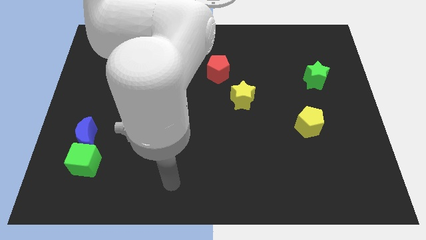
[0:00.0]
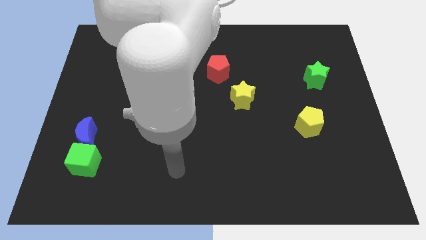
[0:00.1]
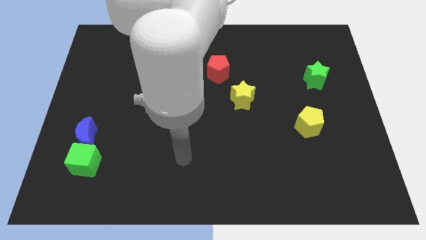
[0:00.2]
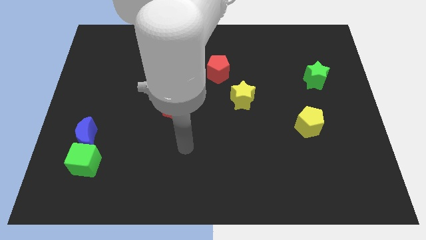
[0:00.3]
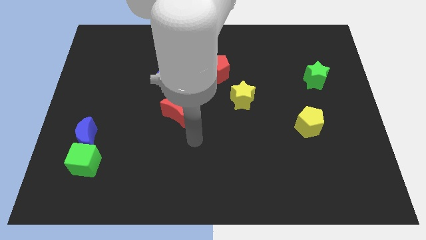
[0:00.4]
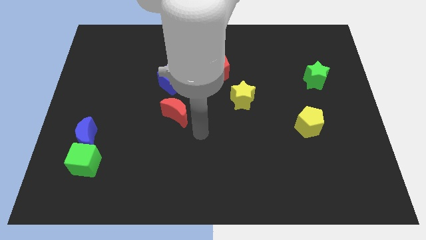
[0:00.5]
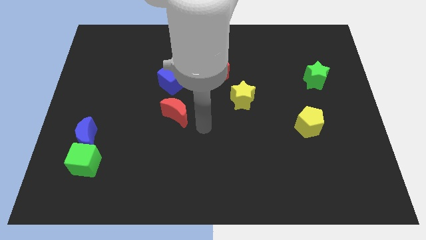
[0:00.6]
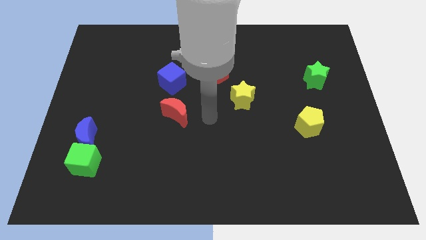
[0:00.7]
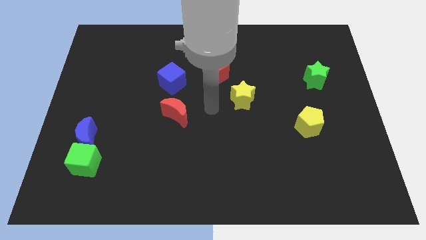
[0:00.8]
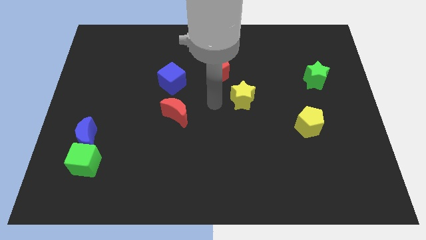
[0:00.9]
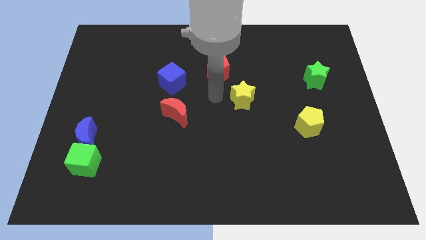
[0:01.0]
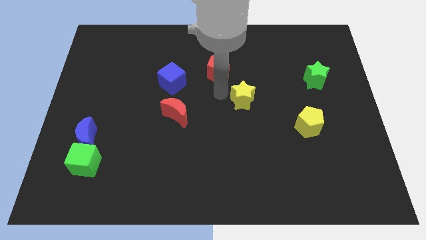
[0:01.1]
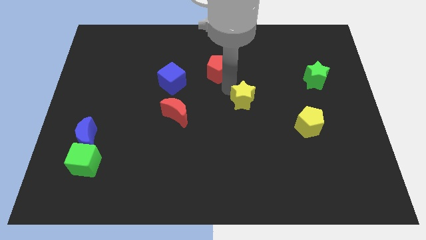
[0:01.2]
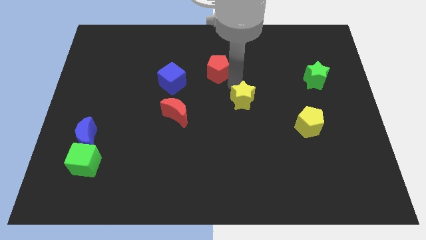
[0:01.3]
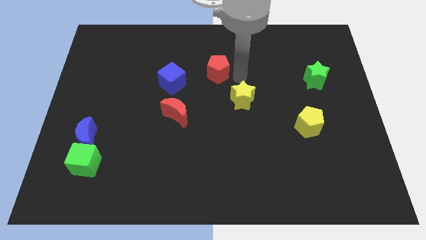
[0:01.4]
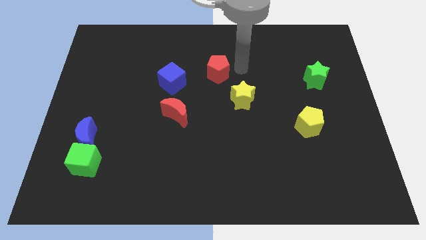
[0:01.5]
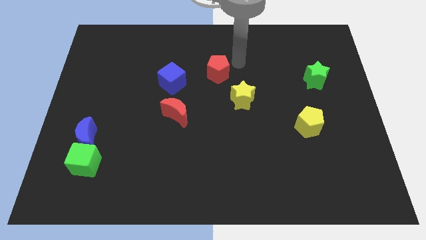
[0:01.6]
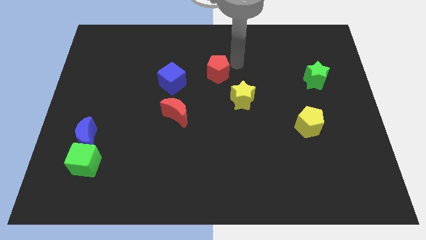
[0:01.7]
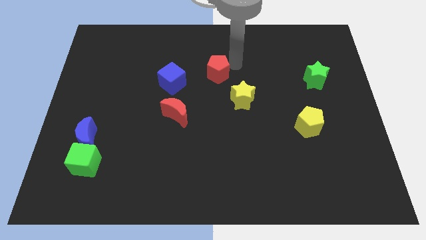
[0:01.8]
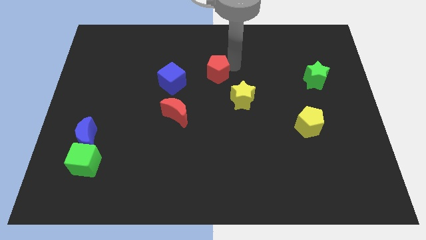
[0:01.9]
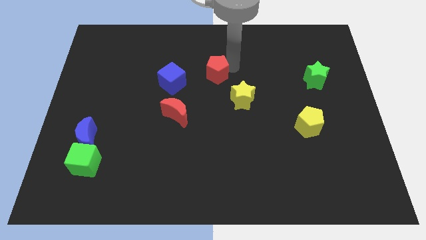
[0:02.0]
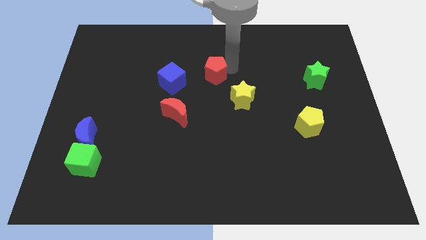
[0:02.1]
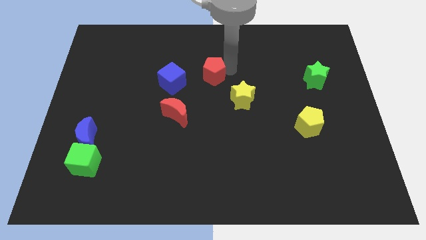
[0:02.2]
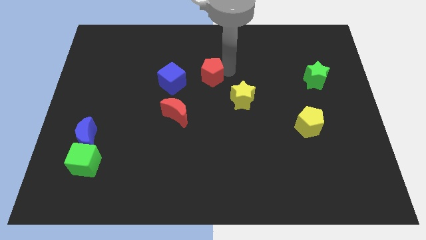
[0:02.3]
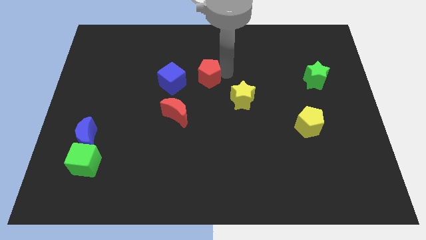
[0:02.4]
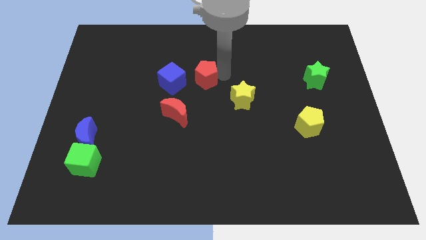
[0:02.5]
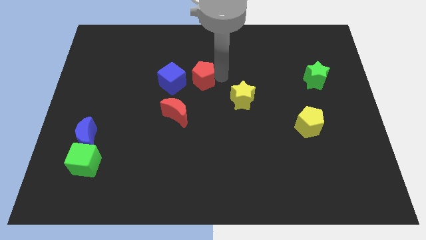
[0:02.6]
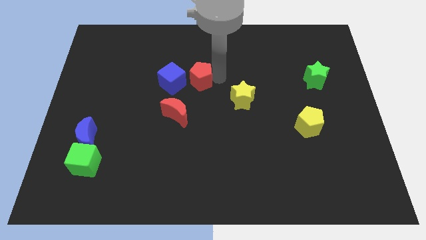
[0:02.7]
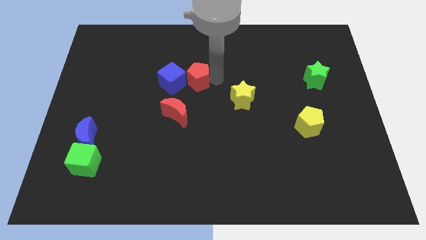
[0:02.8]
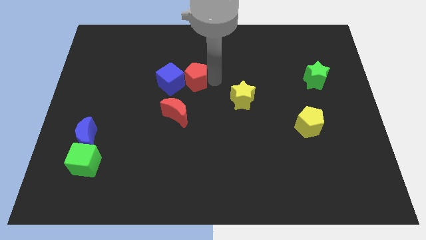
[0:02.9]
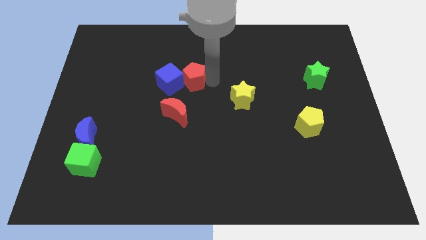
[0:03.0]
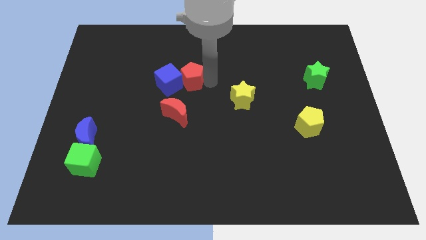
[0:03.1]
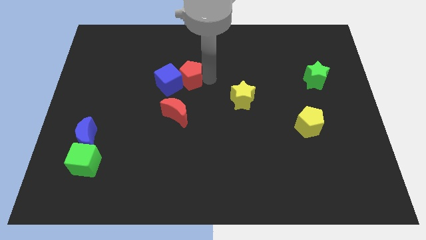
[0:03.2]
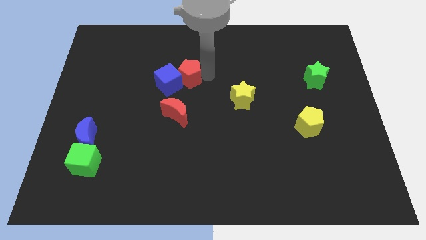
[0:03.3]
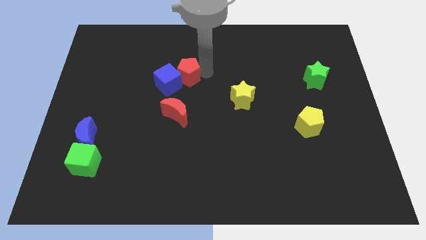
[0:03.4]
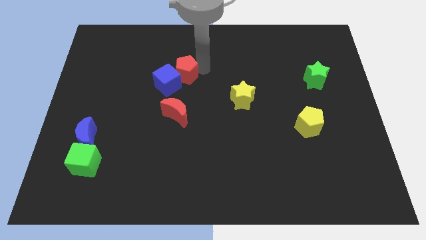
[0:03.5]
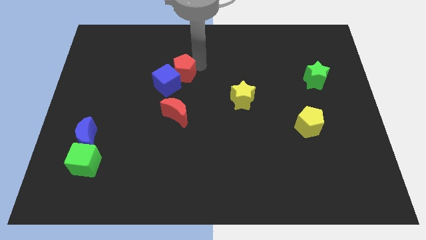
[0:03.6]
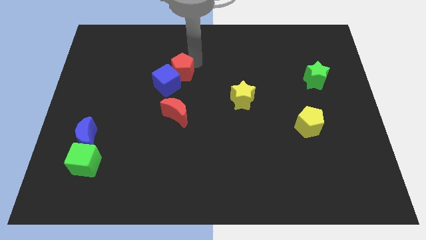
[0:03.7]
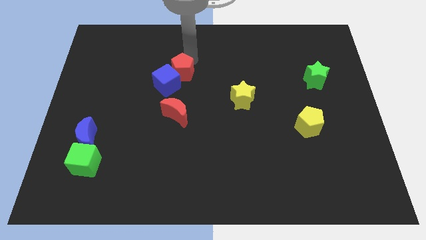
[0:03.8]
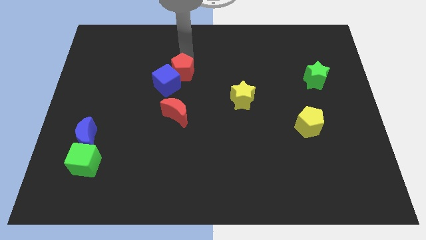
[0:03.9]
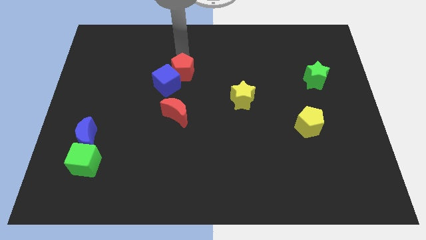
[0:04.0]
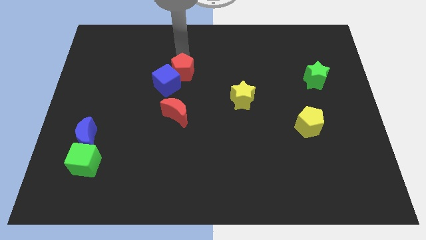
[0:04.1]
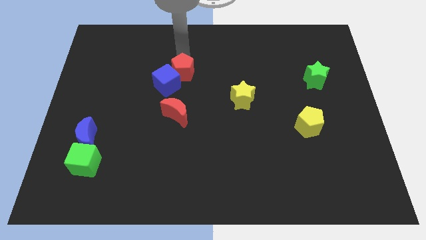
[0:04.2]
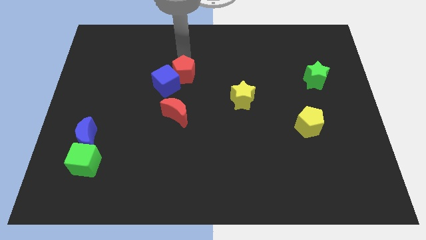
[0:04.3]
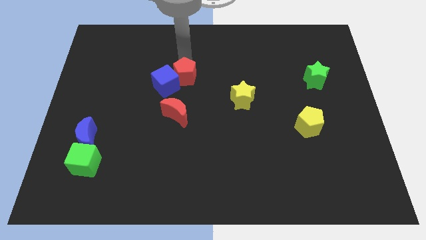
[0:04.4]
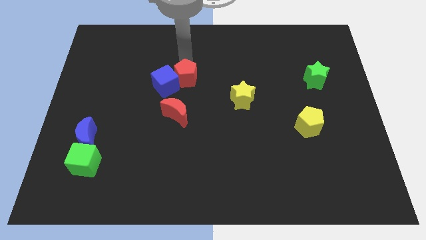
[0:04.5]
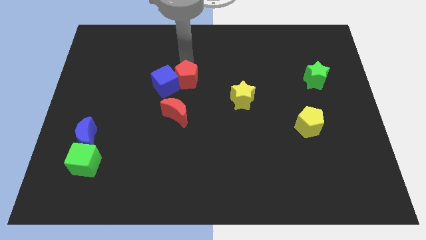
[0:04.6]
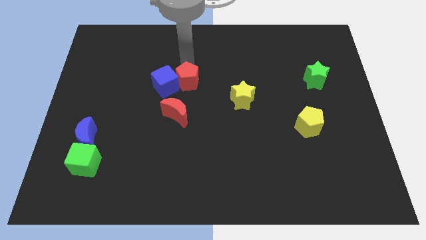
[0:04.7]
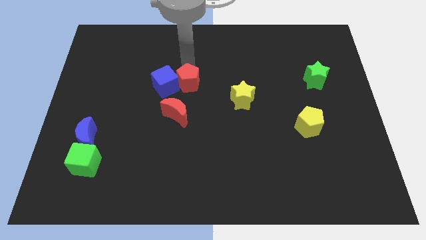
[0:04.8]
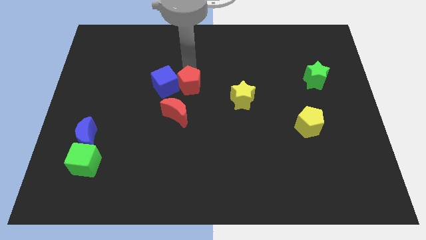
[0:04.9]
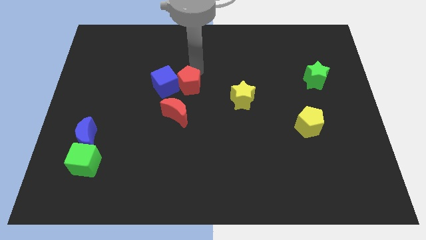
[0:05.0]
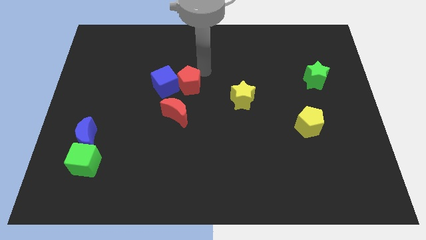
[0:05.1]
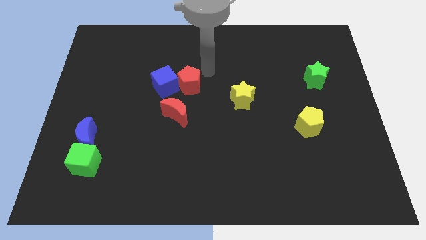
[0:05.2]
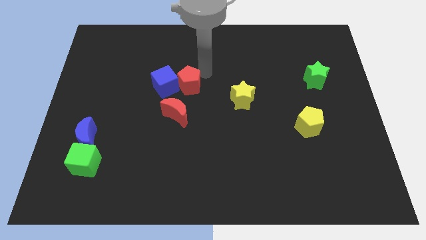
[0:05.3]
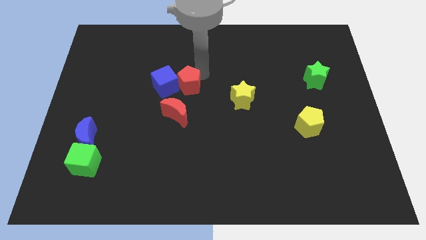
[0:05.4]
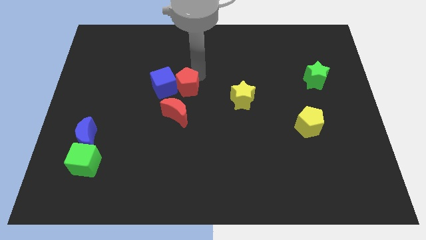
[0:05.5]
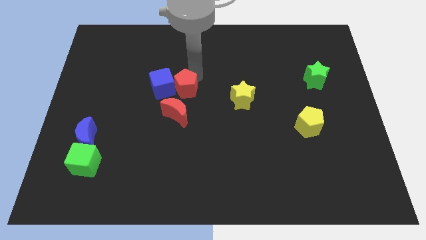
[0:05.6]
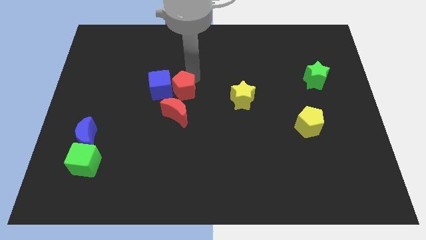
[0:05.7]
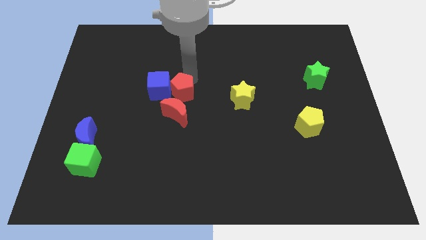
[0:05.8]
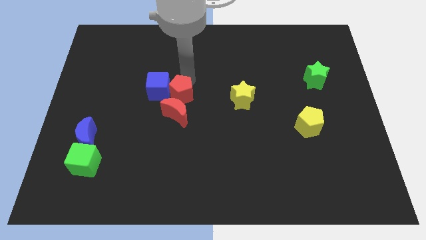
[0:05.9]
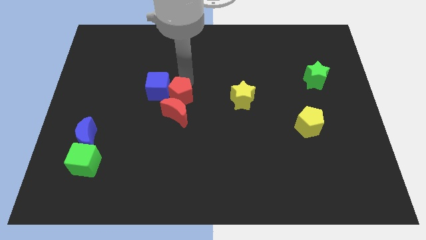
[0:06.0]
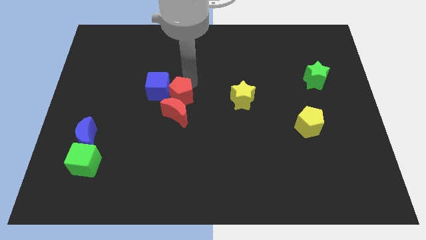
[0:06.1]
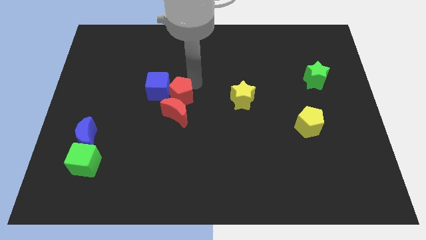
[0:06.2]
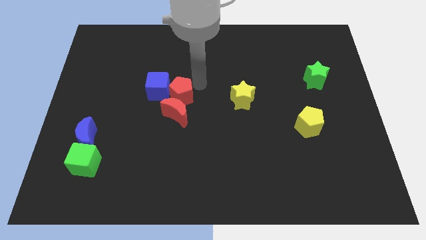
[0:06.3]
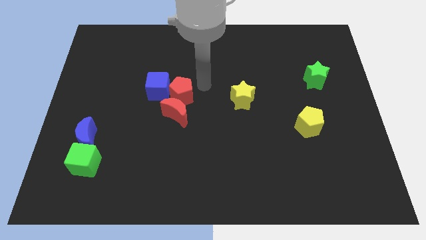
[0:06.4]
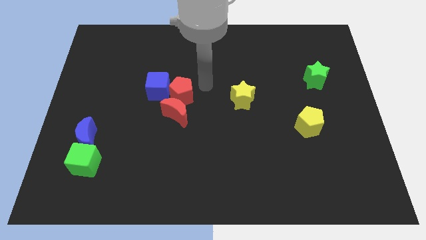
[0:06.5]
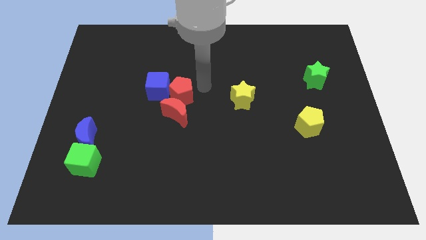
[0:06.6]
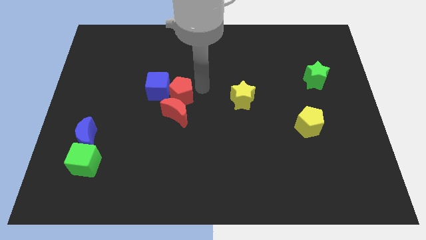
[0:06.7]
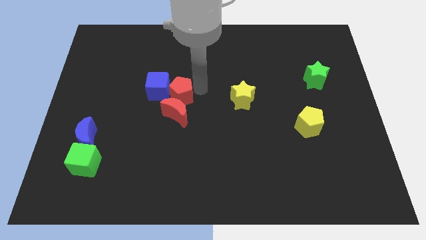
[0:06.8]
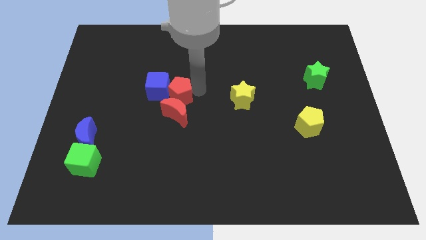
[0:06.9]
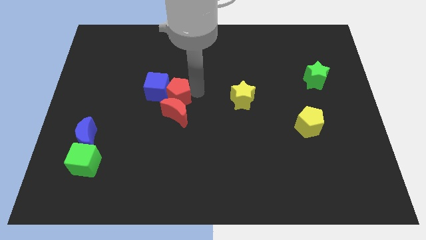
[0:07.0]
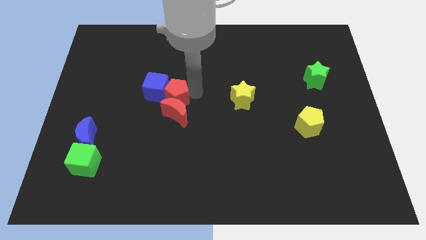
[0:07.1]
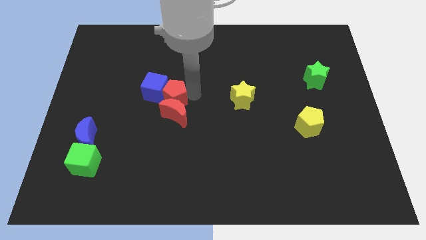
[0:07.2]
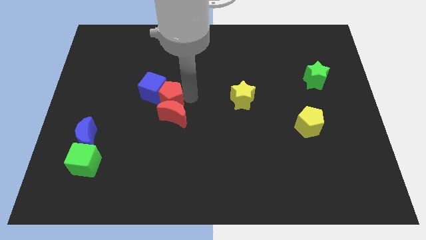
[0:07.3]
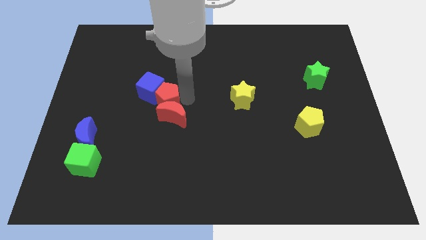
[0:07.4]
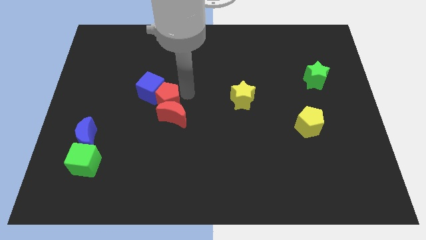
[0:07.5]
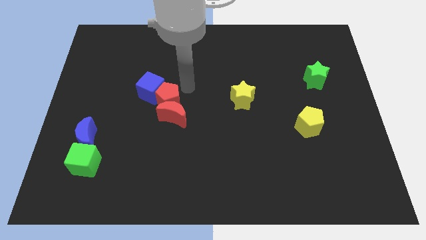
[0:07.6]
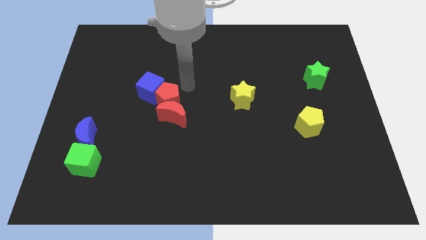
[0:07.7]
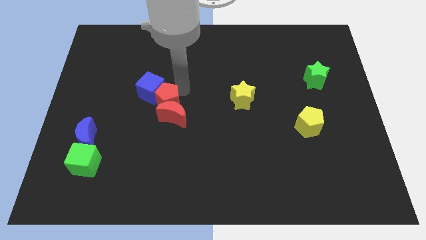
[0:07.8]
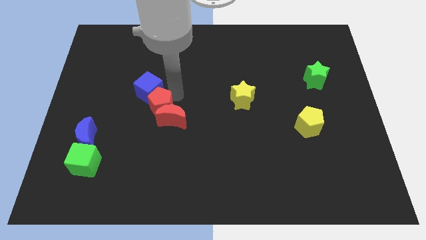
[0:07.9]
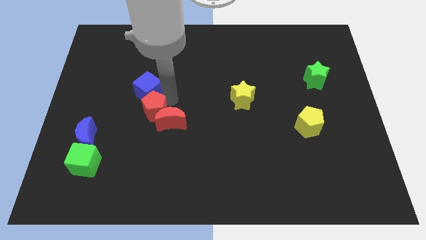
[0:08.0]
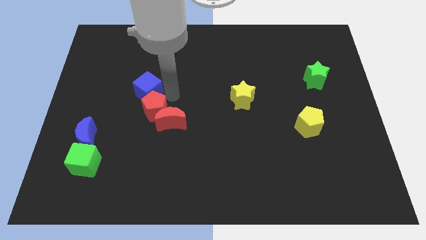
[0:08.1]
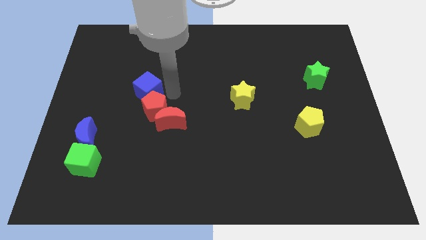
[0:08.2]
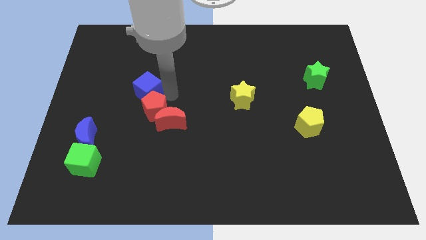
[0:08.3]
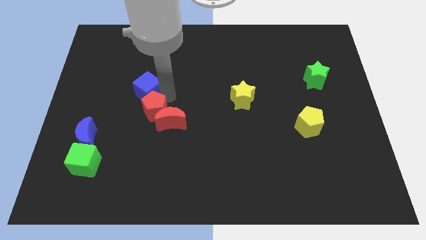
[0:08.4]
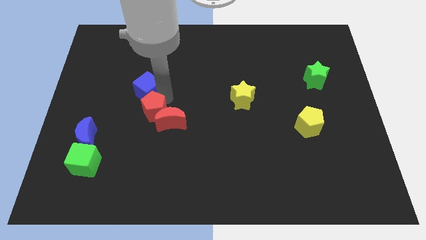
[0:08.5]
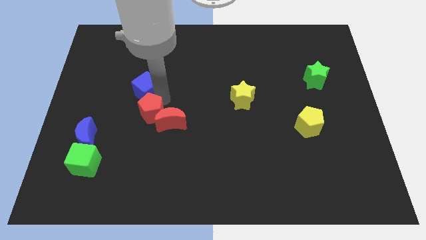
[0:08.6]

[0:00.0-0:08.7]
slide the red pentagon downwards and to the left diagonally
